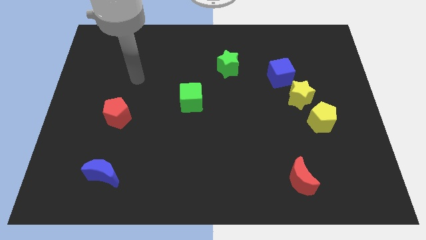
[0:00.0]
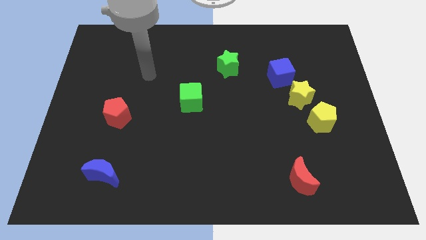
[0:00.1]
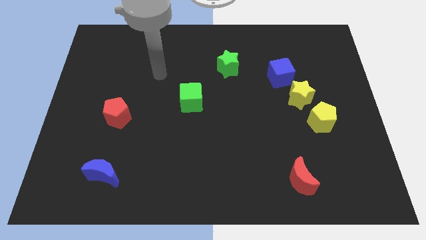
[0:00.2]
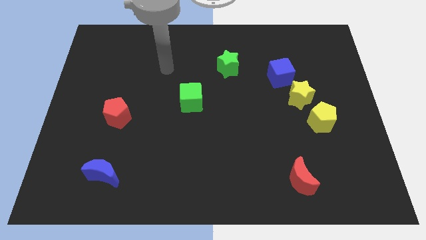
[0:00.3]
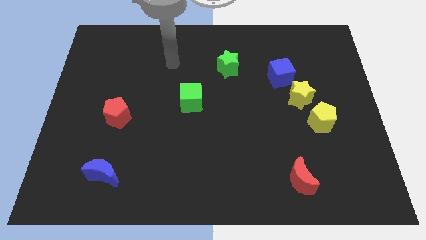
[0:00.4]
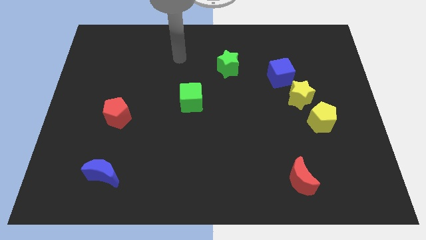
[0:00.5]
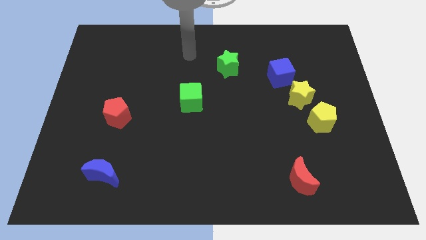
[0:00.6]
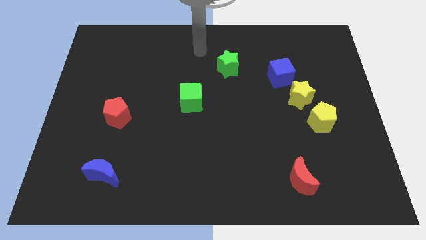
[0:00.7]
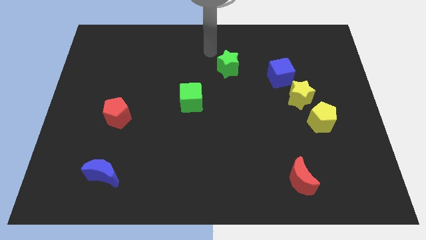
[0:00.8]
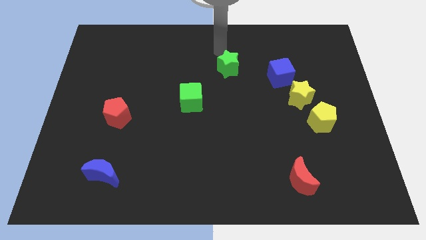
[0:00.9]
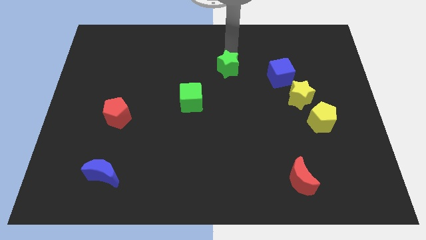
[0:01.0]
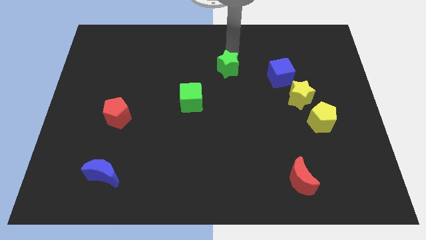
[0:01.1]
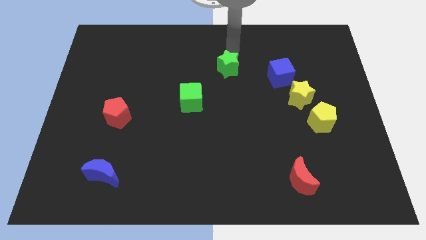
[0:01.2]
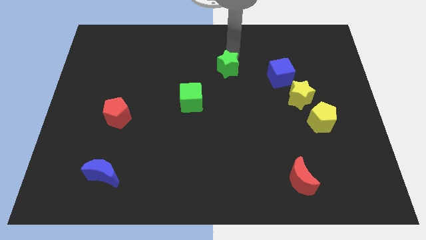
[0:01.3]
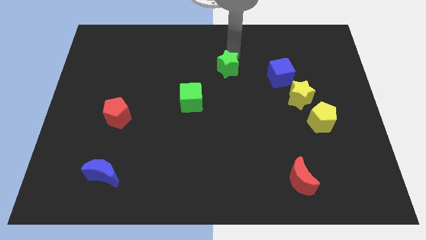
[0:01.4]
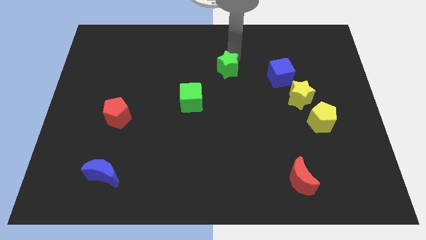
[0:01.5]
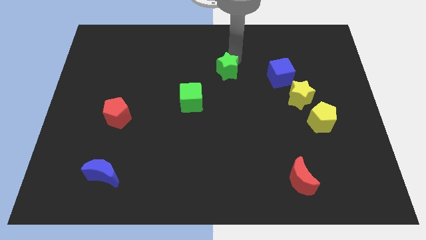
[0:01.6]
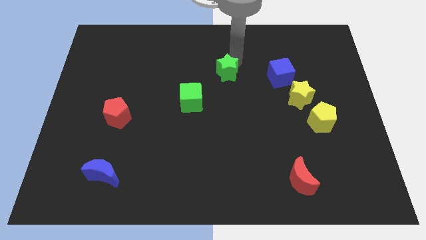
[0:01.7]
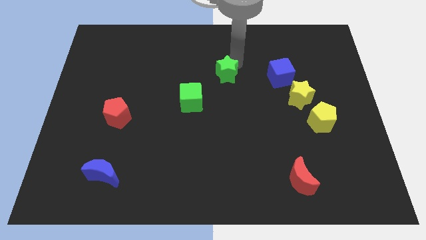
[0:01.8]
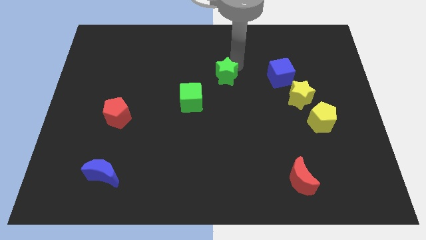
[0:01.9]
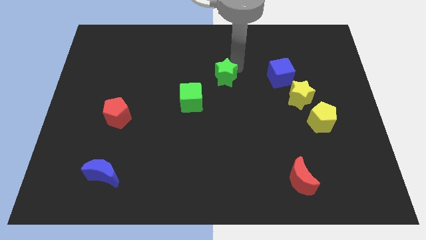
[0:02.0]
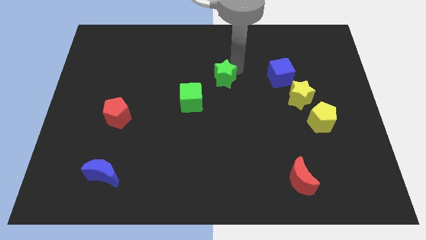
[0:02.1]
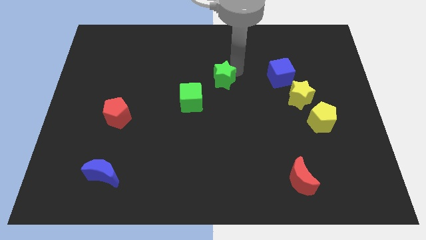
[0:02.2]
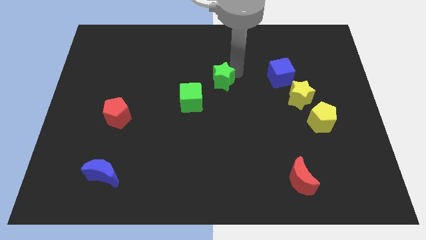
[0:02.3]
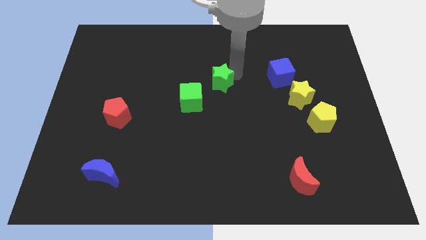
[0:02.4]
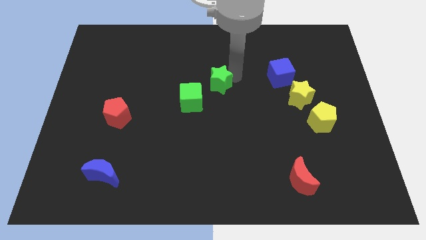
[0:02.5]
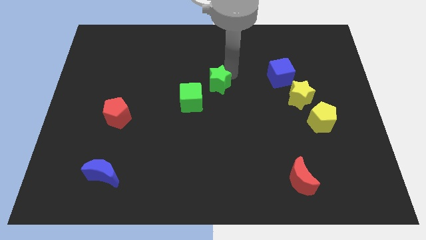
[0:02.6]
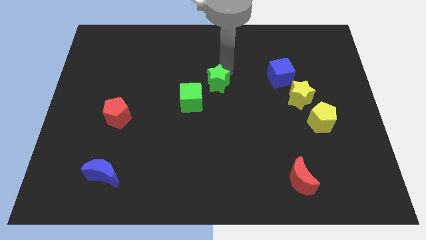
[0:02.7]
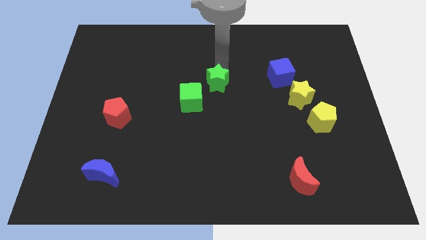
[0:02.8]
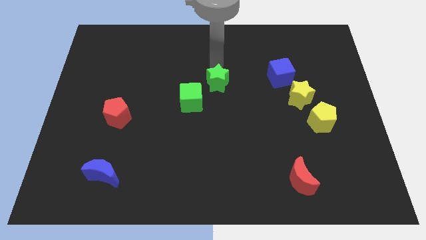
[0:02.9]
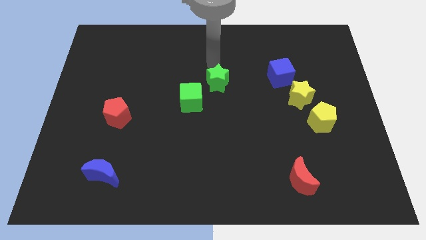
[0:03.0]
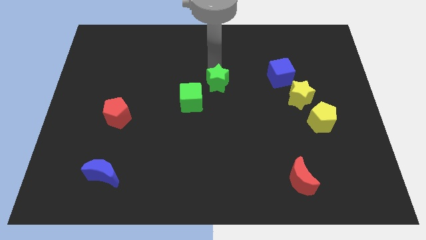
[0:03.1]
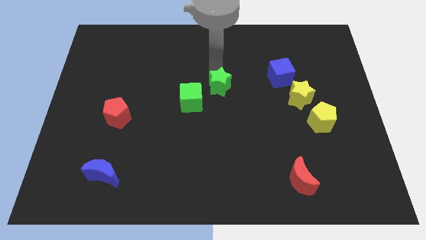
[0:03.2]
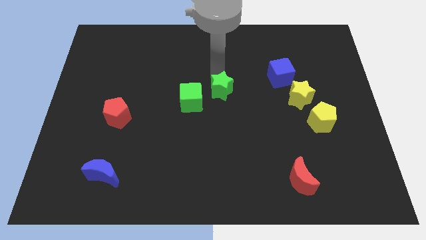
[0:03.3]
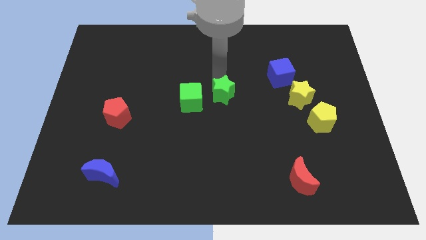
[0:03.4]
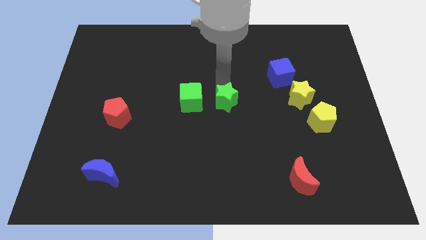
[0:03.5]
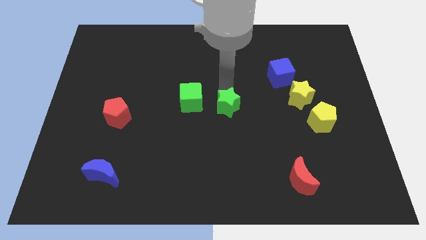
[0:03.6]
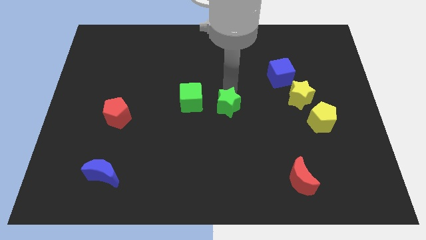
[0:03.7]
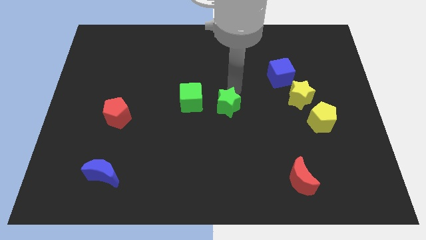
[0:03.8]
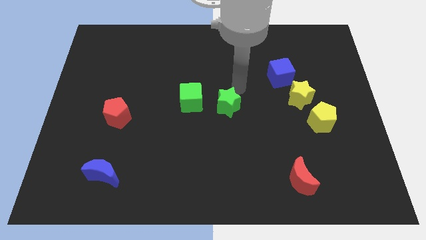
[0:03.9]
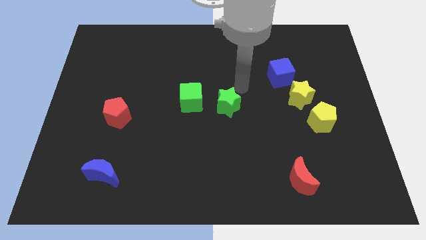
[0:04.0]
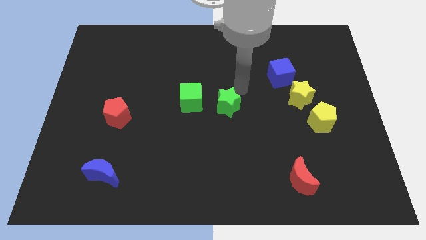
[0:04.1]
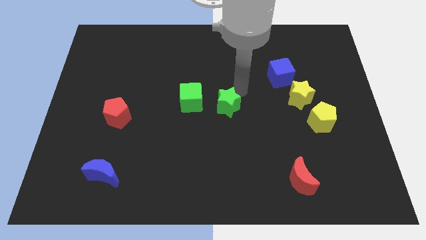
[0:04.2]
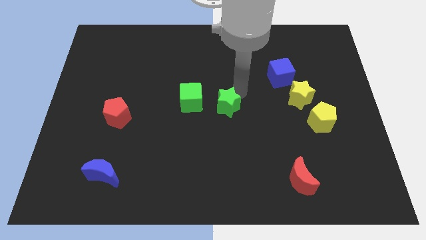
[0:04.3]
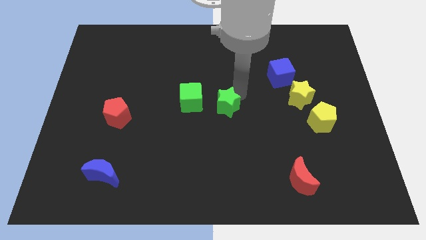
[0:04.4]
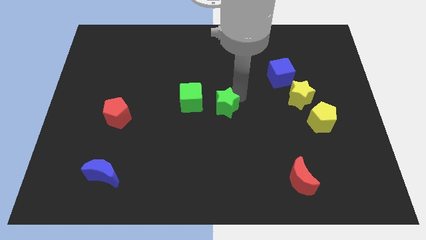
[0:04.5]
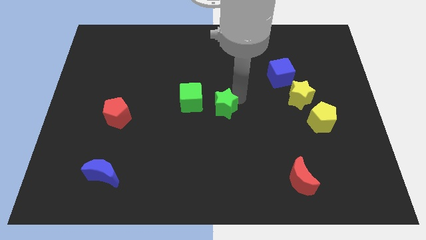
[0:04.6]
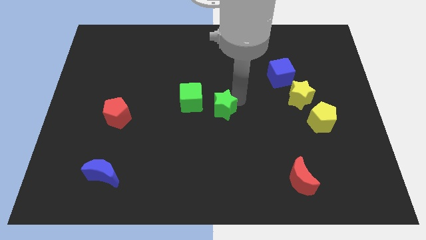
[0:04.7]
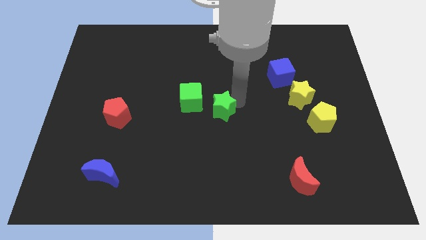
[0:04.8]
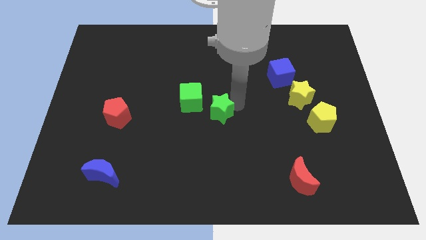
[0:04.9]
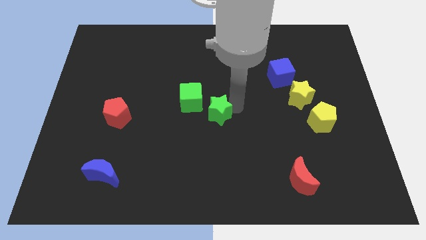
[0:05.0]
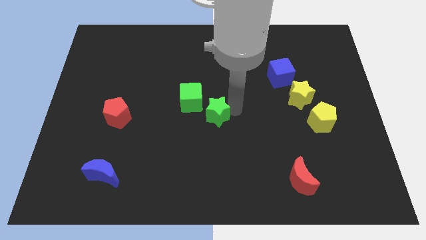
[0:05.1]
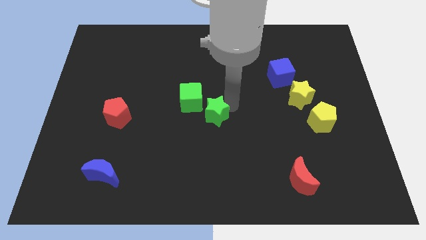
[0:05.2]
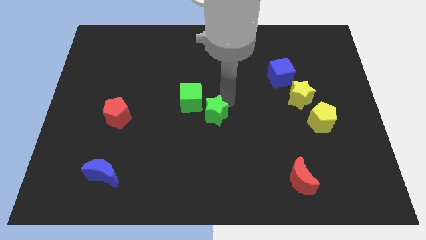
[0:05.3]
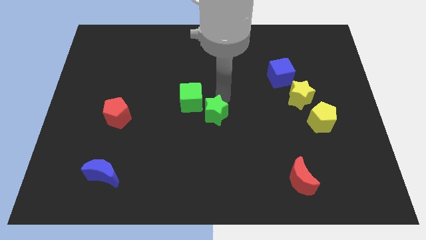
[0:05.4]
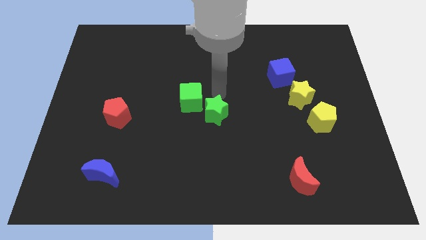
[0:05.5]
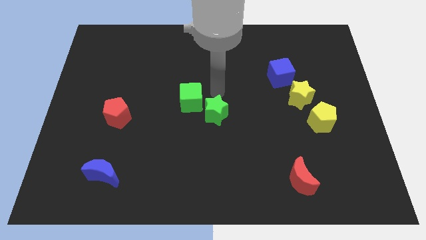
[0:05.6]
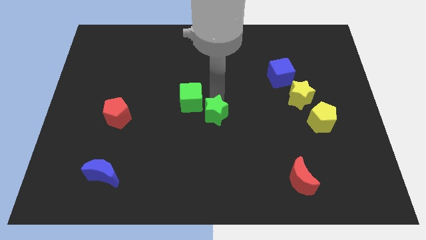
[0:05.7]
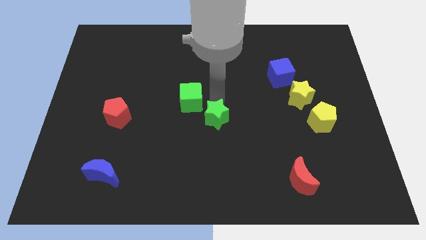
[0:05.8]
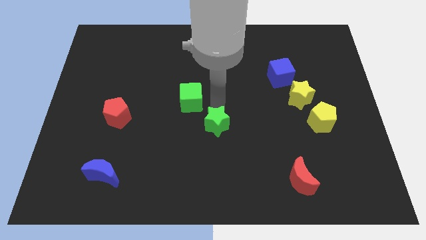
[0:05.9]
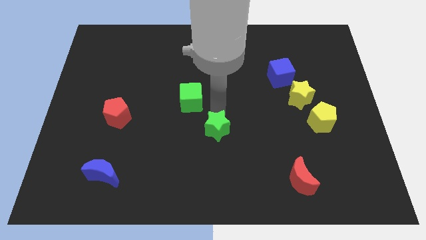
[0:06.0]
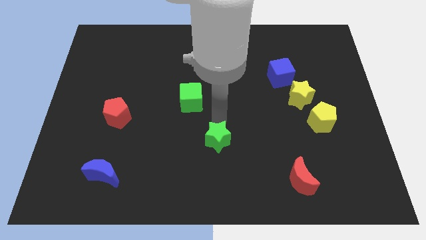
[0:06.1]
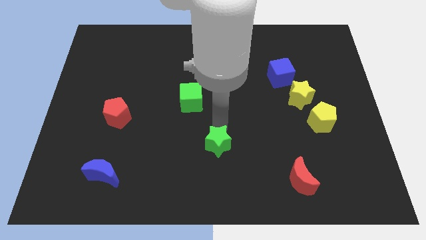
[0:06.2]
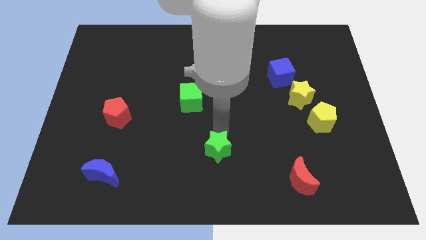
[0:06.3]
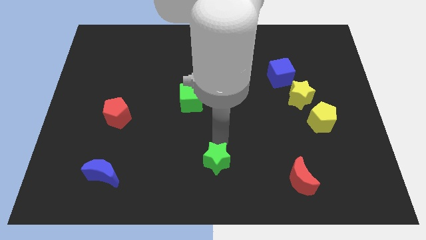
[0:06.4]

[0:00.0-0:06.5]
move the green star to the bottom

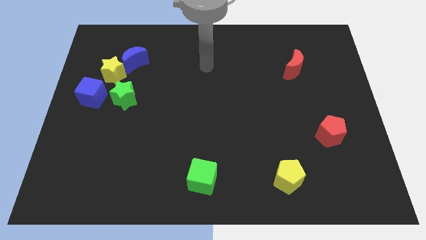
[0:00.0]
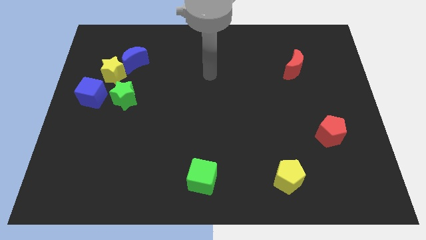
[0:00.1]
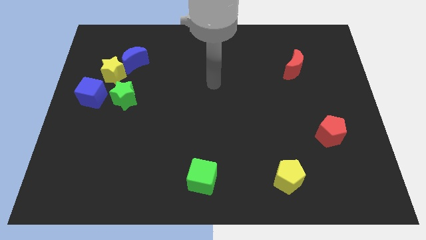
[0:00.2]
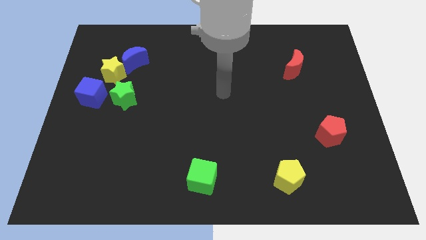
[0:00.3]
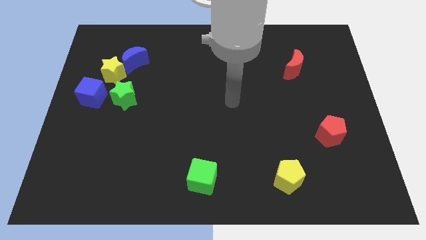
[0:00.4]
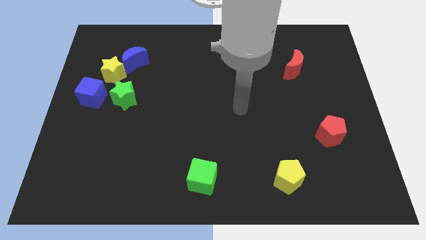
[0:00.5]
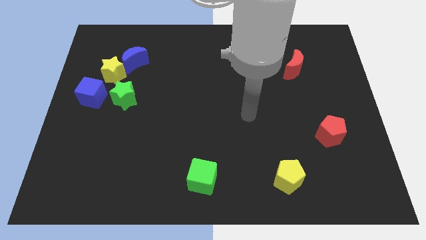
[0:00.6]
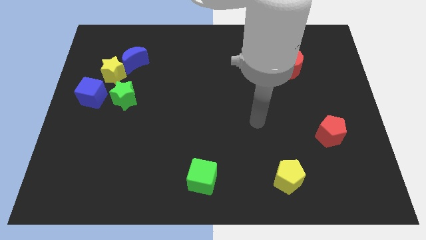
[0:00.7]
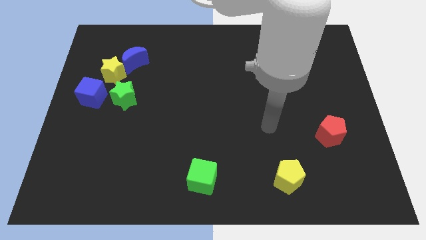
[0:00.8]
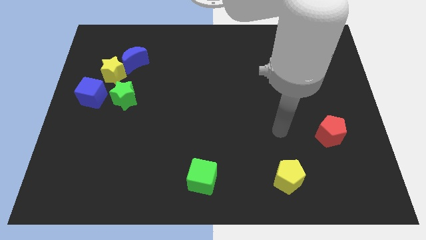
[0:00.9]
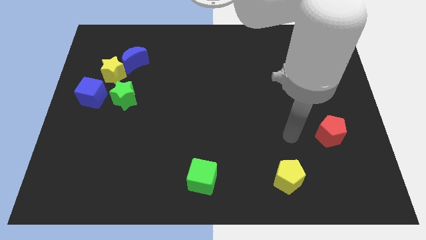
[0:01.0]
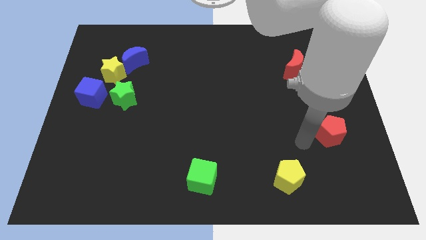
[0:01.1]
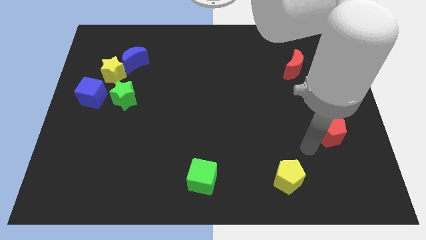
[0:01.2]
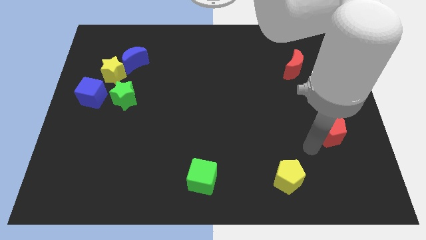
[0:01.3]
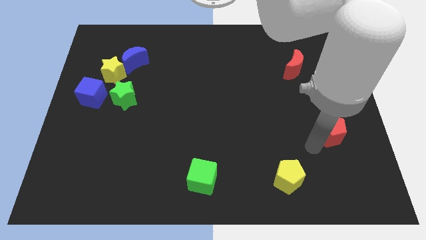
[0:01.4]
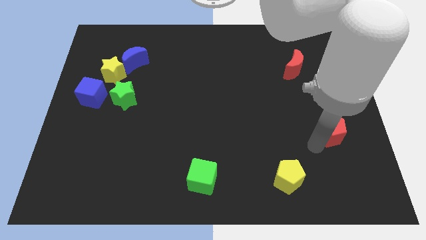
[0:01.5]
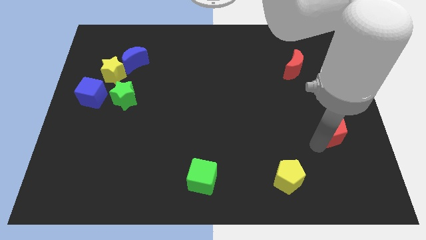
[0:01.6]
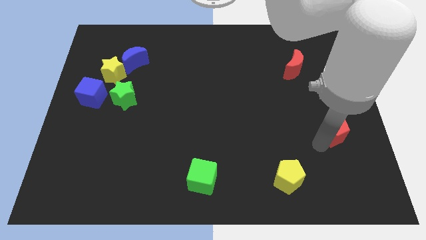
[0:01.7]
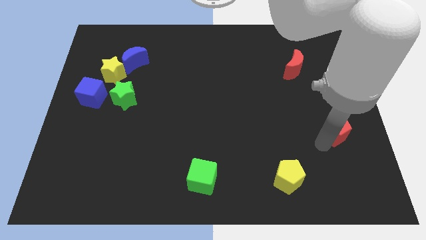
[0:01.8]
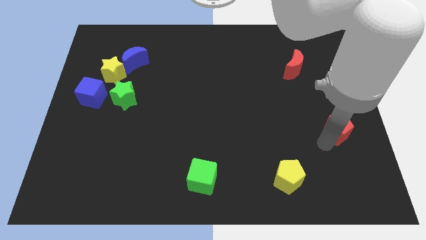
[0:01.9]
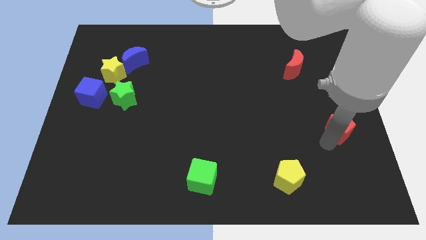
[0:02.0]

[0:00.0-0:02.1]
move the red pentagon to the right side of the board
